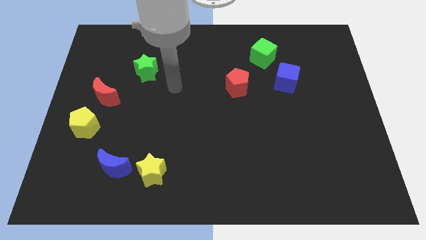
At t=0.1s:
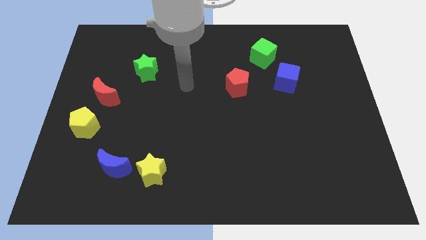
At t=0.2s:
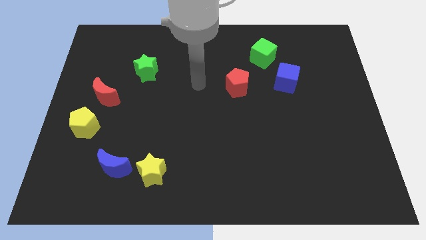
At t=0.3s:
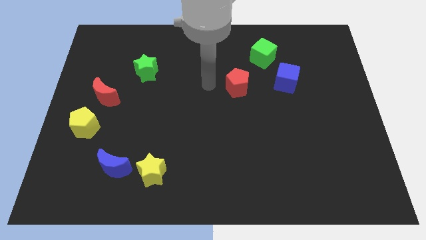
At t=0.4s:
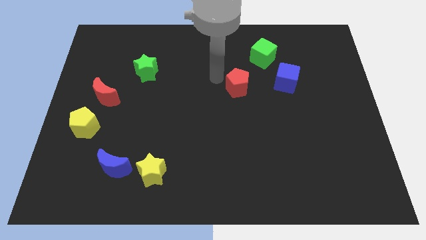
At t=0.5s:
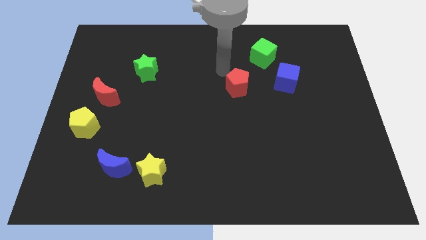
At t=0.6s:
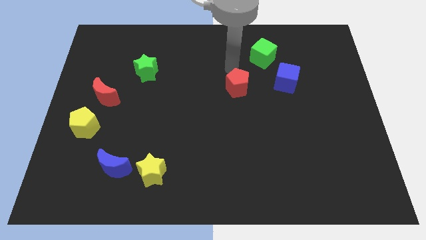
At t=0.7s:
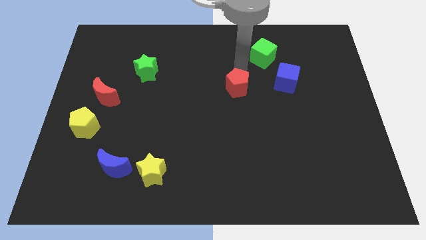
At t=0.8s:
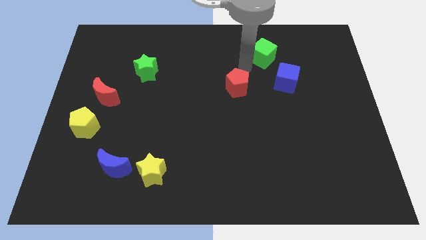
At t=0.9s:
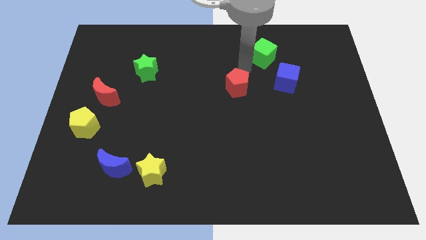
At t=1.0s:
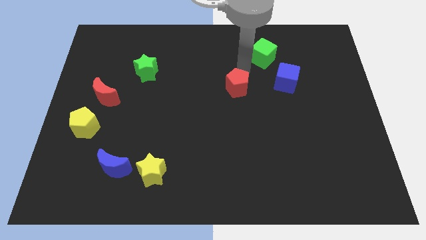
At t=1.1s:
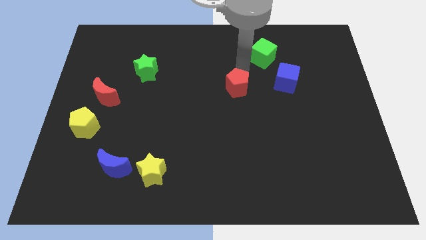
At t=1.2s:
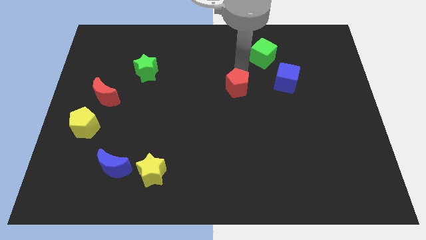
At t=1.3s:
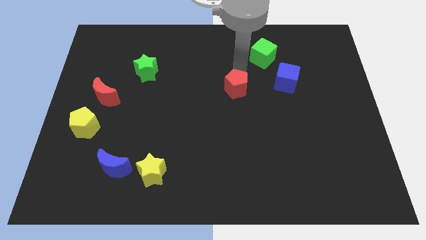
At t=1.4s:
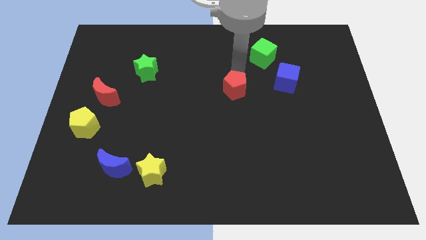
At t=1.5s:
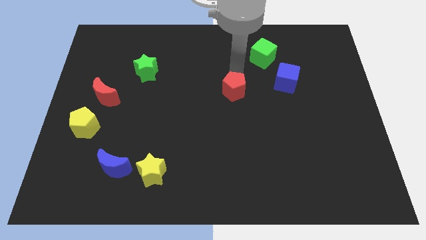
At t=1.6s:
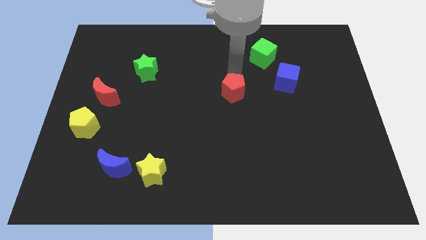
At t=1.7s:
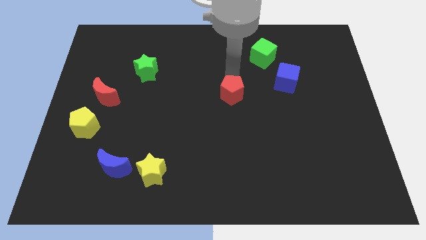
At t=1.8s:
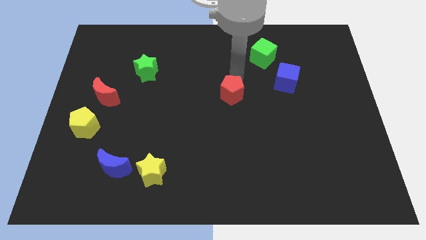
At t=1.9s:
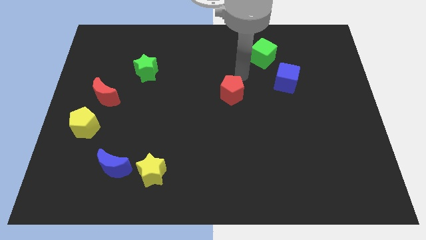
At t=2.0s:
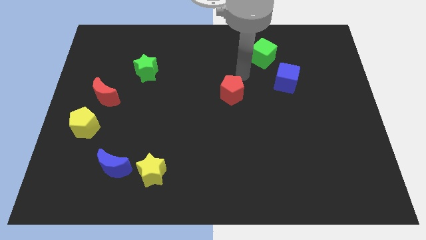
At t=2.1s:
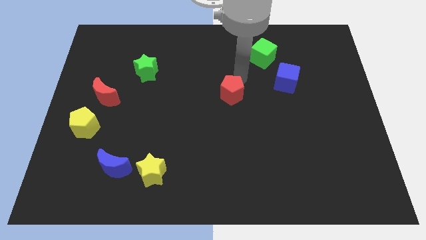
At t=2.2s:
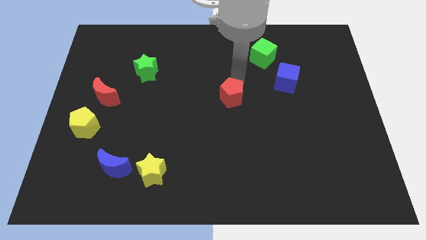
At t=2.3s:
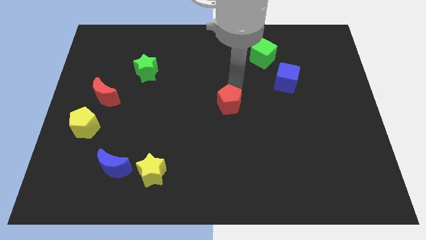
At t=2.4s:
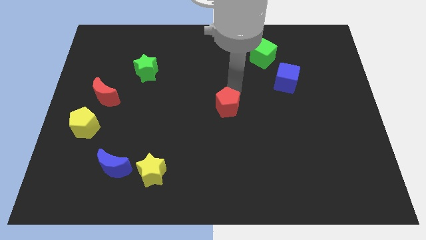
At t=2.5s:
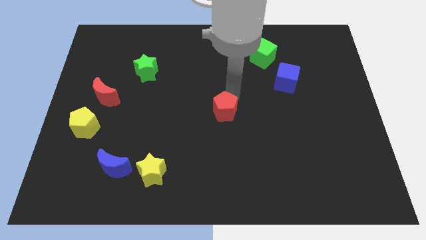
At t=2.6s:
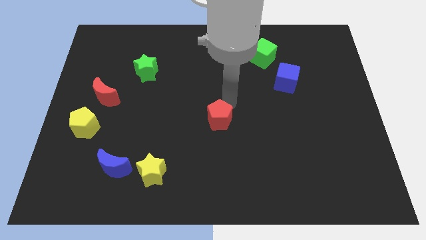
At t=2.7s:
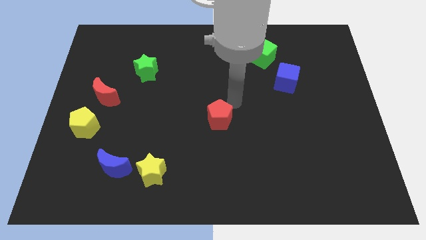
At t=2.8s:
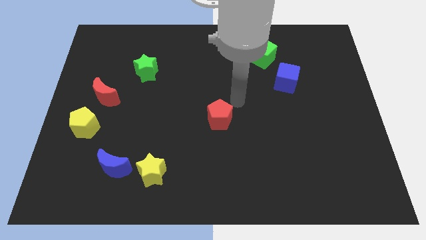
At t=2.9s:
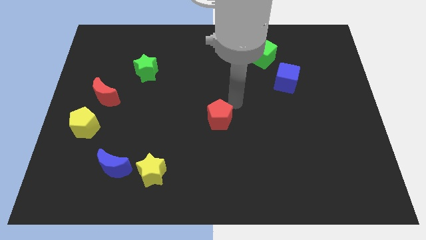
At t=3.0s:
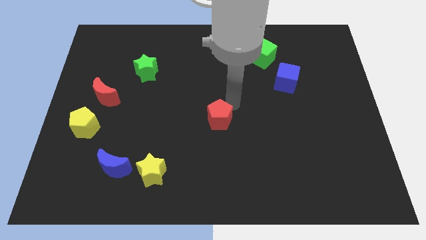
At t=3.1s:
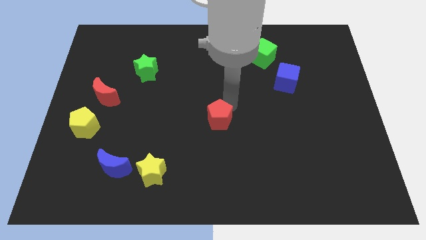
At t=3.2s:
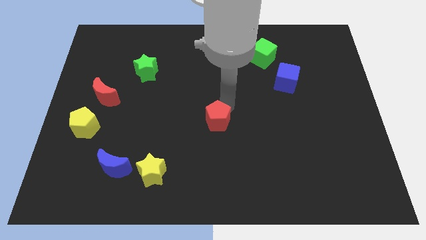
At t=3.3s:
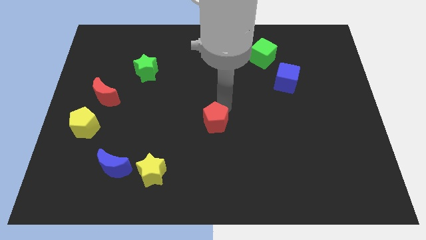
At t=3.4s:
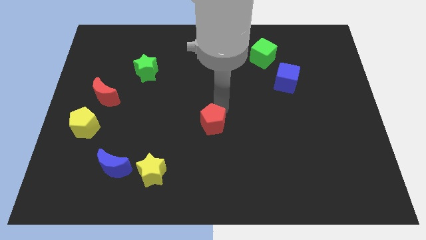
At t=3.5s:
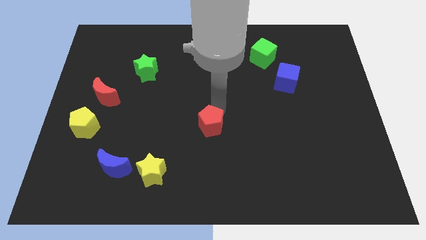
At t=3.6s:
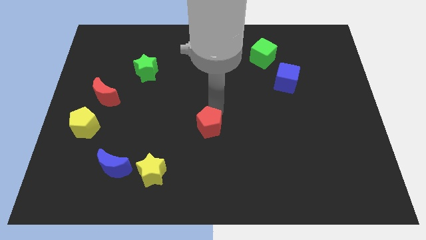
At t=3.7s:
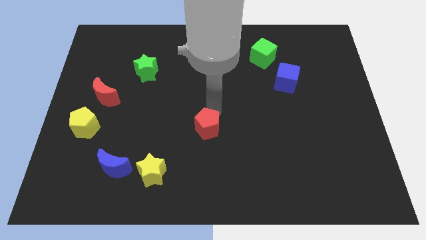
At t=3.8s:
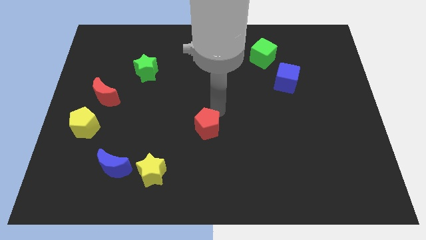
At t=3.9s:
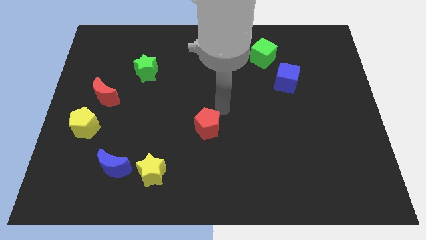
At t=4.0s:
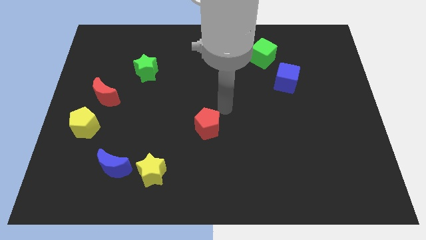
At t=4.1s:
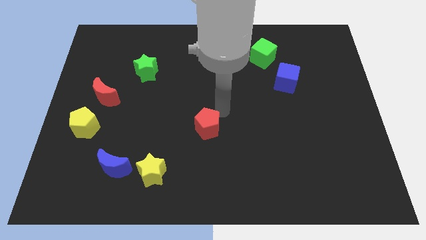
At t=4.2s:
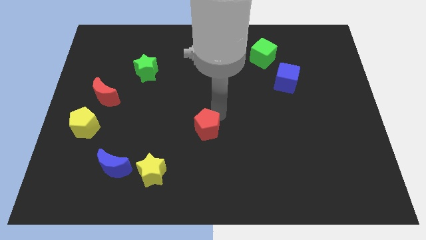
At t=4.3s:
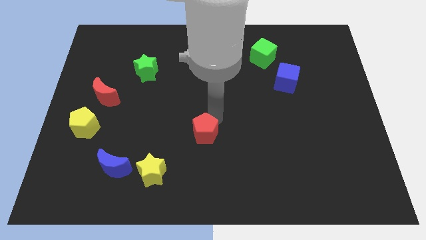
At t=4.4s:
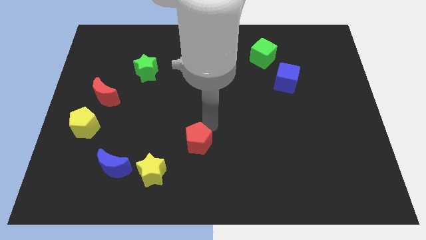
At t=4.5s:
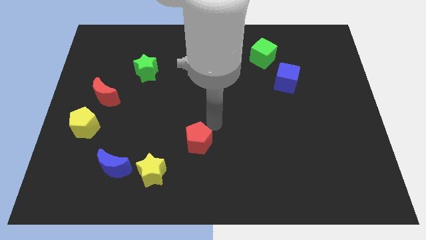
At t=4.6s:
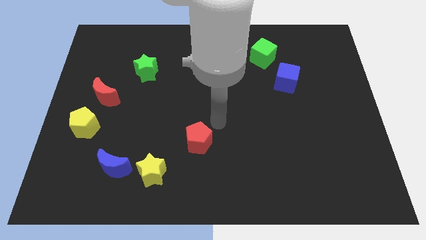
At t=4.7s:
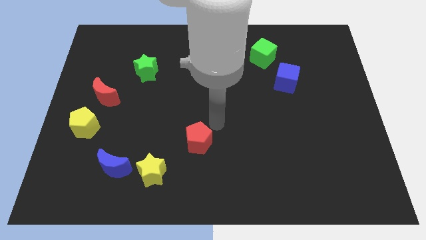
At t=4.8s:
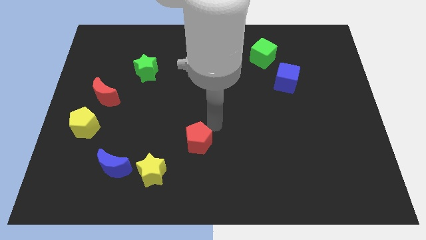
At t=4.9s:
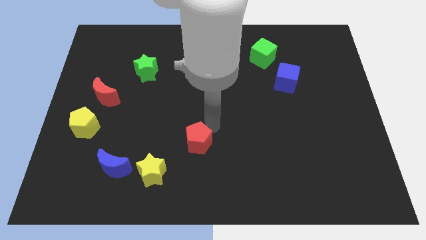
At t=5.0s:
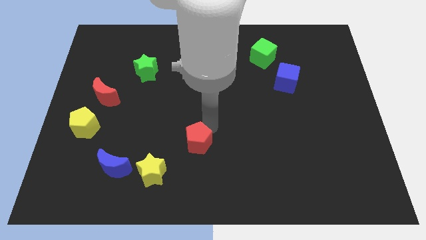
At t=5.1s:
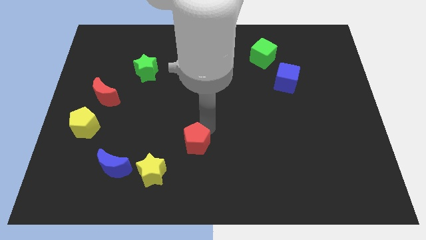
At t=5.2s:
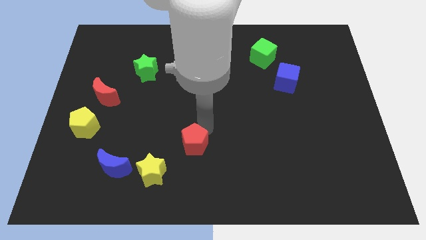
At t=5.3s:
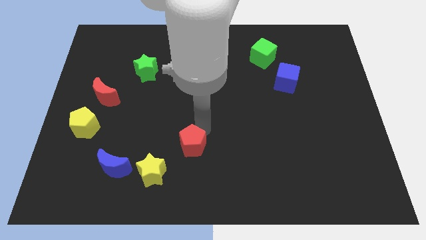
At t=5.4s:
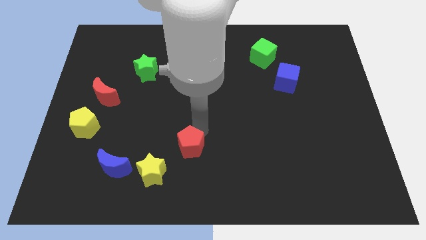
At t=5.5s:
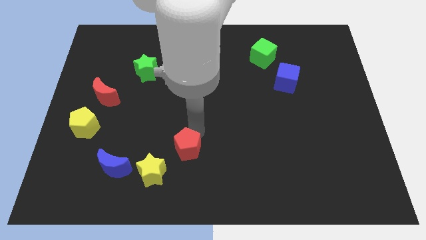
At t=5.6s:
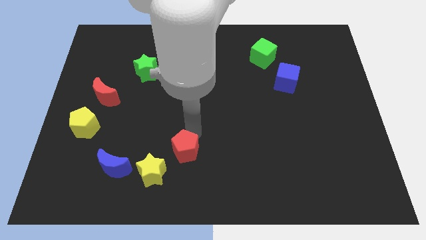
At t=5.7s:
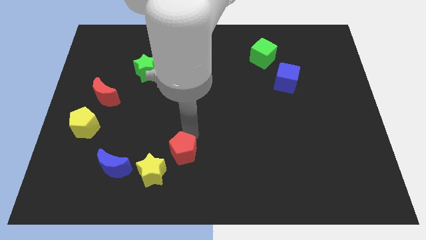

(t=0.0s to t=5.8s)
push the red pentagon to the right of the blue moon

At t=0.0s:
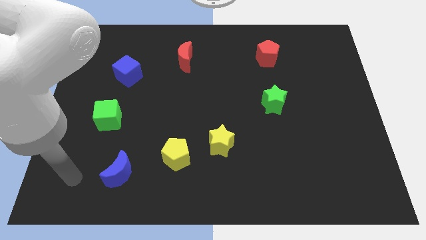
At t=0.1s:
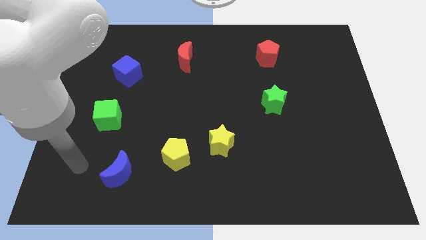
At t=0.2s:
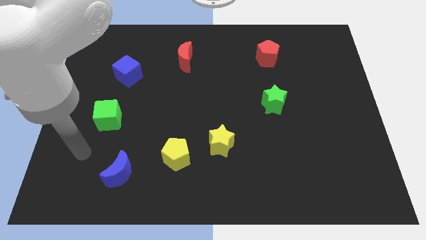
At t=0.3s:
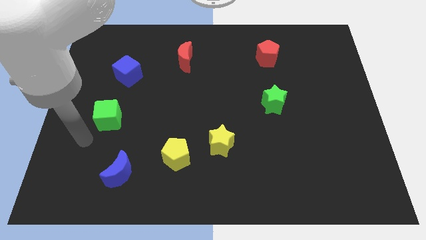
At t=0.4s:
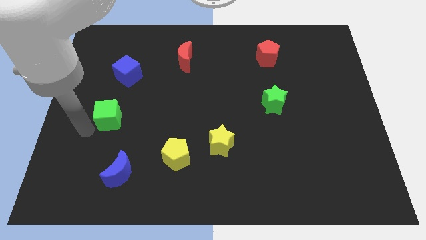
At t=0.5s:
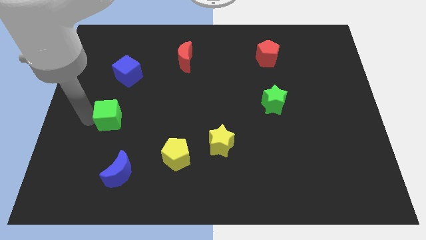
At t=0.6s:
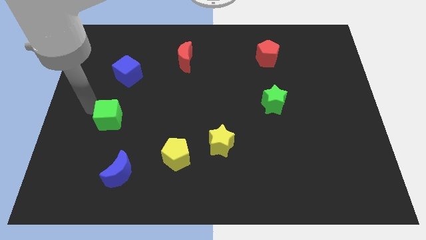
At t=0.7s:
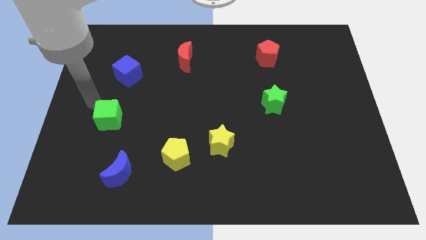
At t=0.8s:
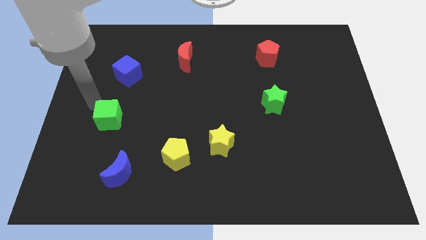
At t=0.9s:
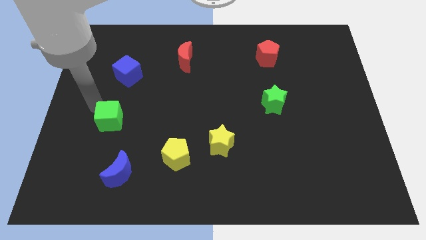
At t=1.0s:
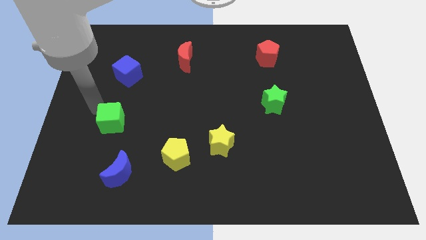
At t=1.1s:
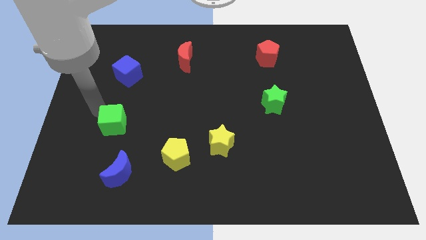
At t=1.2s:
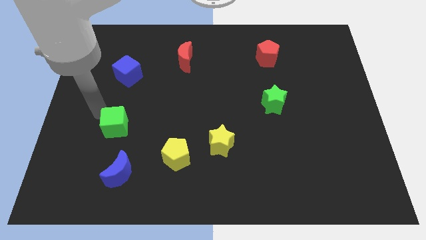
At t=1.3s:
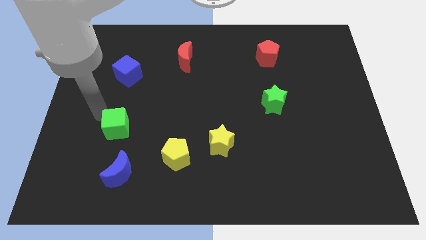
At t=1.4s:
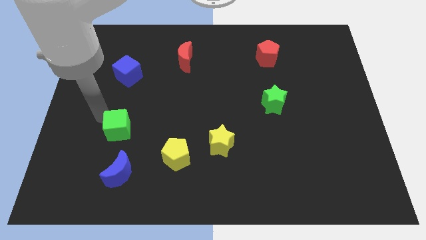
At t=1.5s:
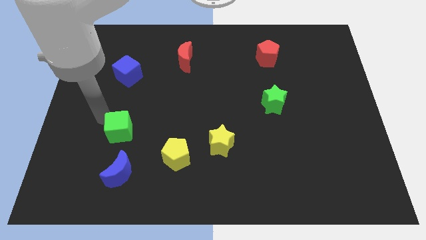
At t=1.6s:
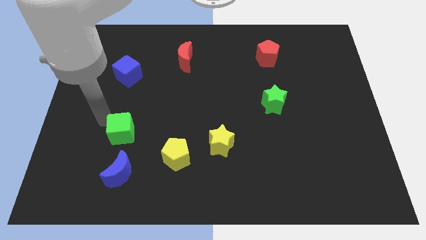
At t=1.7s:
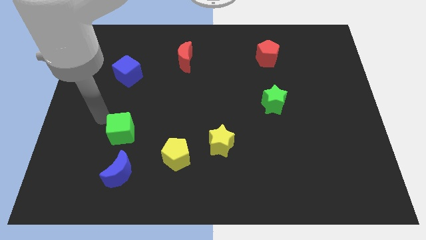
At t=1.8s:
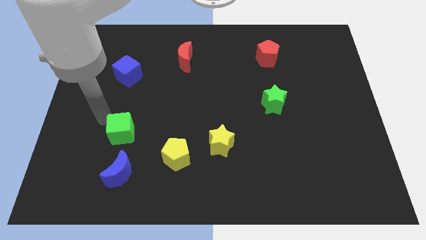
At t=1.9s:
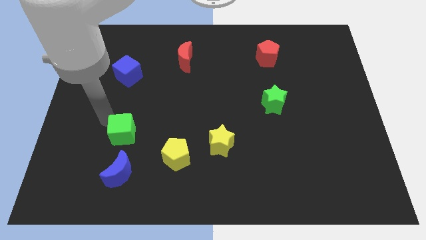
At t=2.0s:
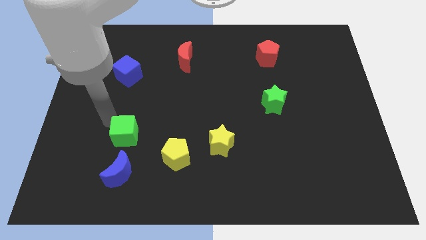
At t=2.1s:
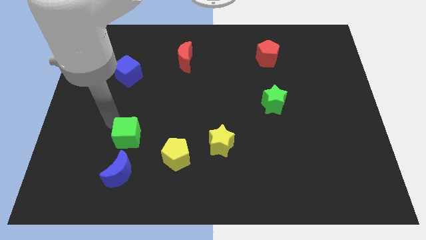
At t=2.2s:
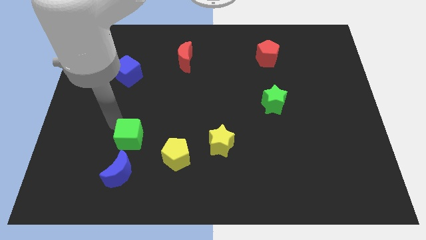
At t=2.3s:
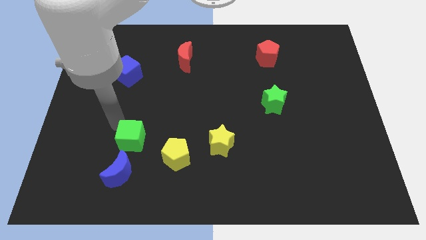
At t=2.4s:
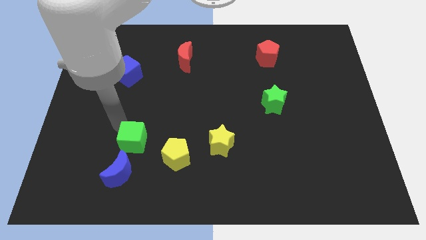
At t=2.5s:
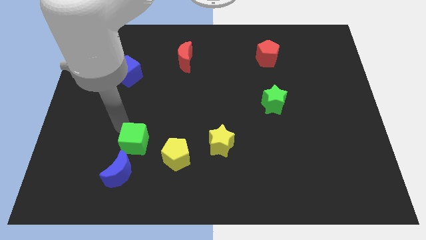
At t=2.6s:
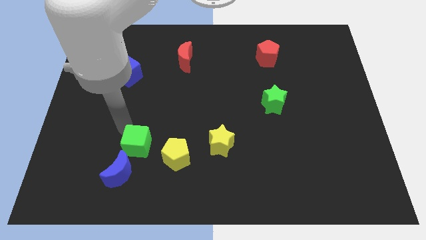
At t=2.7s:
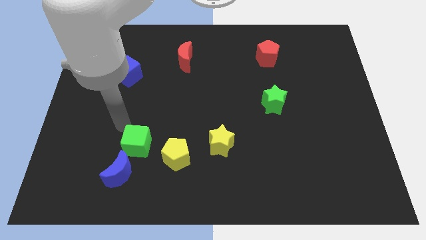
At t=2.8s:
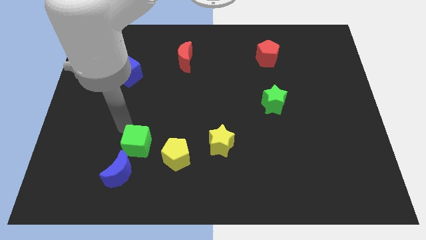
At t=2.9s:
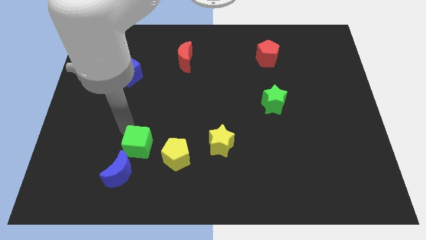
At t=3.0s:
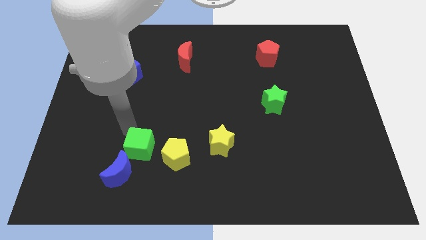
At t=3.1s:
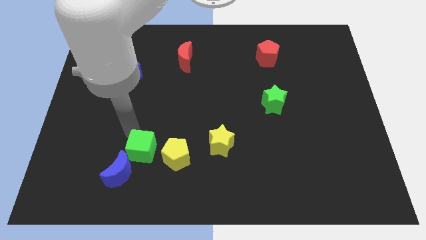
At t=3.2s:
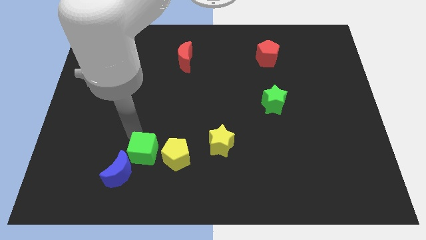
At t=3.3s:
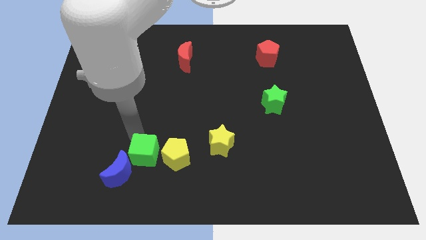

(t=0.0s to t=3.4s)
move the green cube just right of the blue moon
